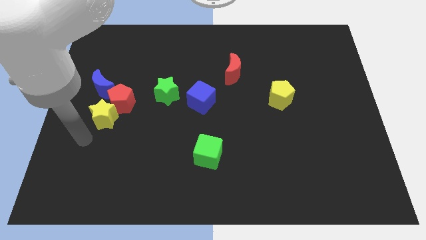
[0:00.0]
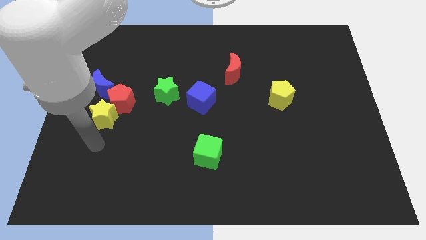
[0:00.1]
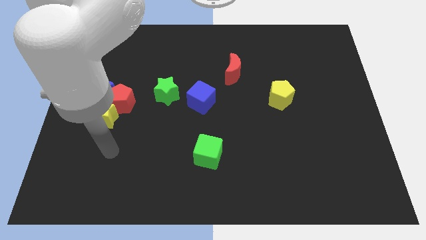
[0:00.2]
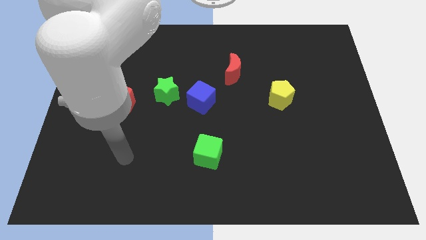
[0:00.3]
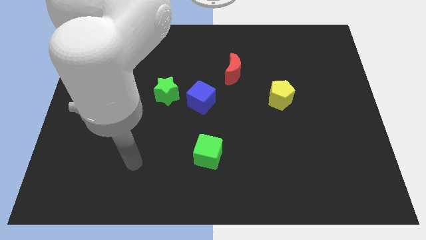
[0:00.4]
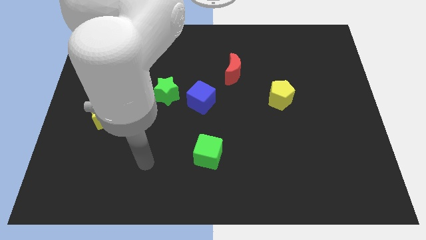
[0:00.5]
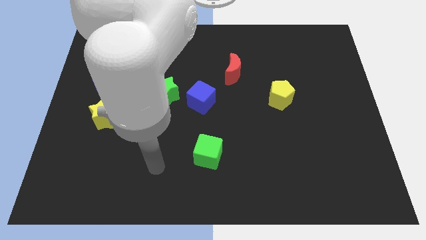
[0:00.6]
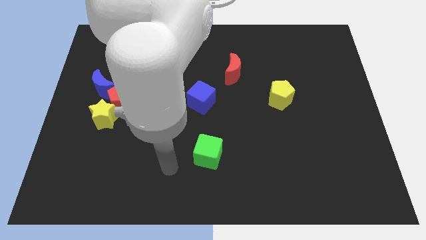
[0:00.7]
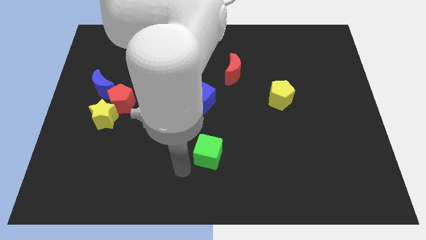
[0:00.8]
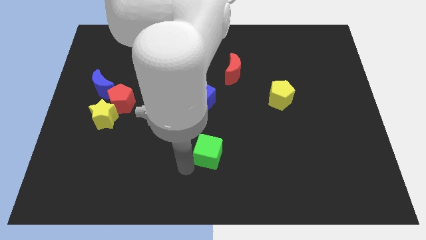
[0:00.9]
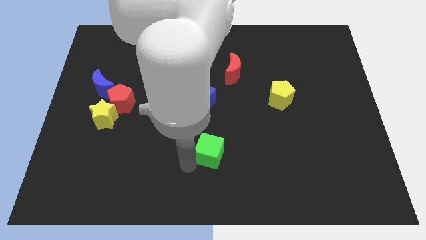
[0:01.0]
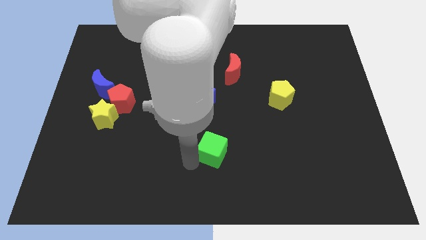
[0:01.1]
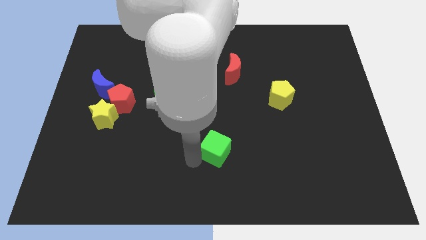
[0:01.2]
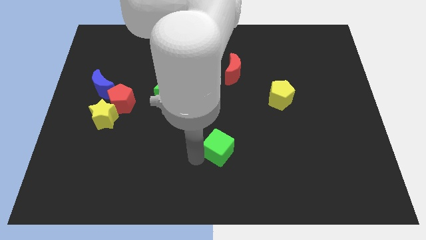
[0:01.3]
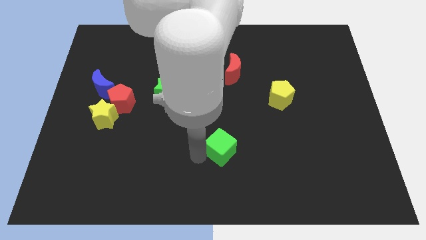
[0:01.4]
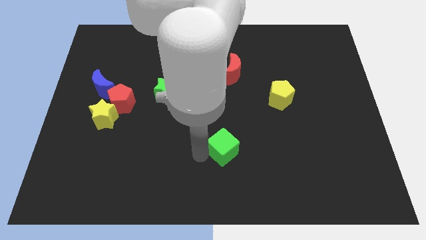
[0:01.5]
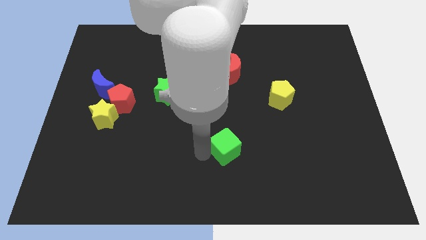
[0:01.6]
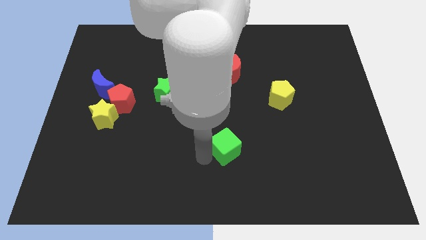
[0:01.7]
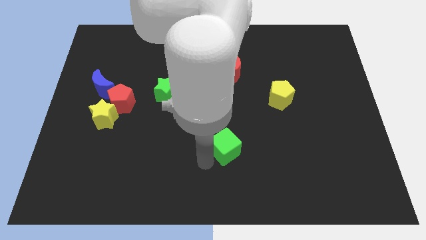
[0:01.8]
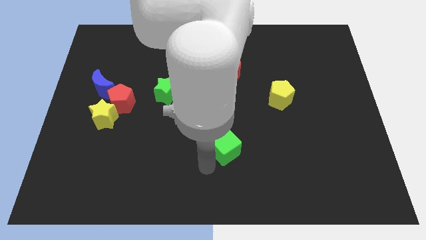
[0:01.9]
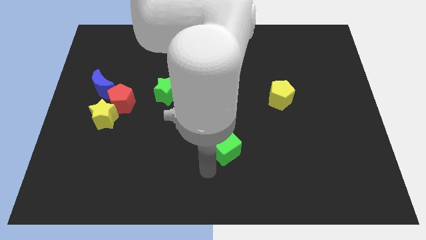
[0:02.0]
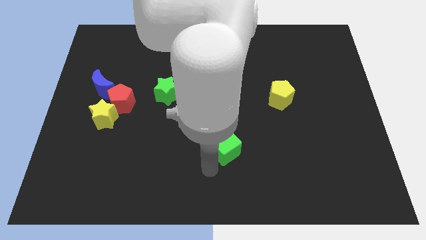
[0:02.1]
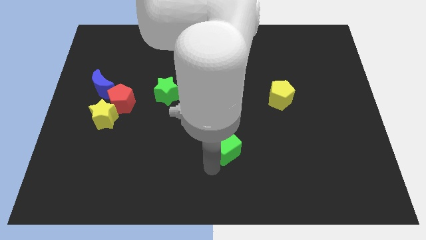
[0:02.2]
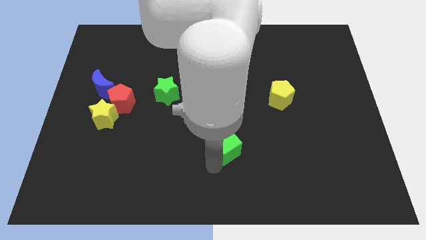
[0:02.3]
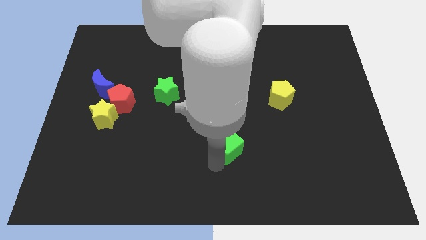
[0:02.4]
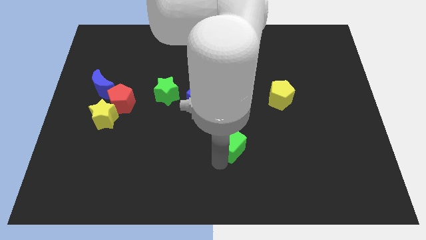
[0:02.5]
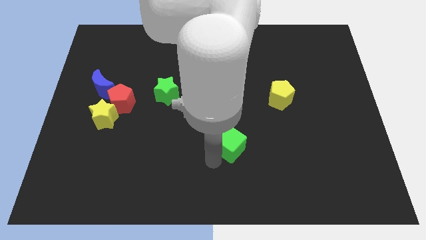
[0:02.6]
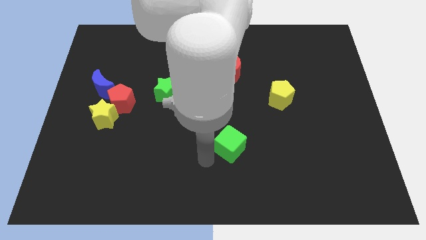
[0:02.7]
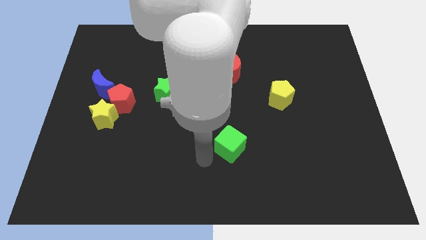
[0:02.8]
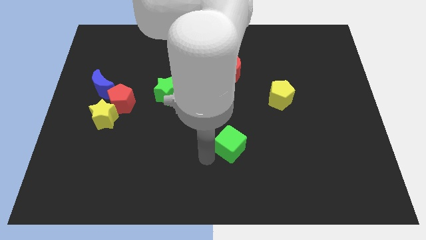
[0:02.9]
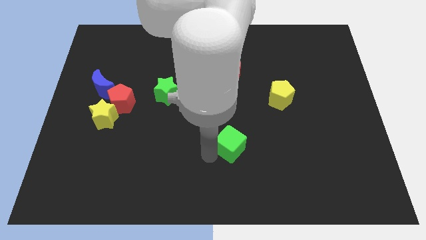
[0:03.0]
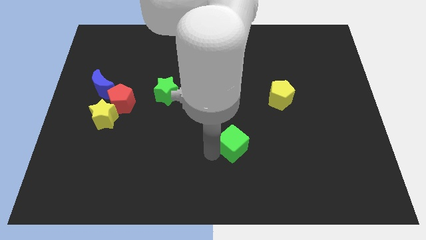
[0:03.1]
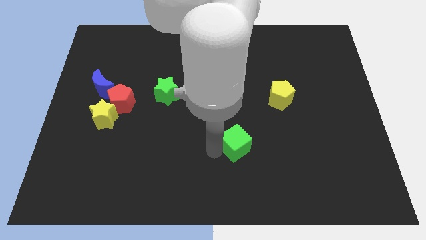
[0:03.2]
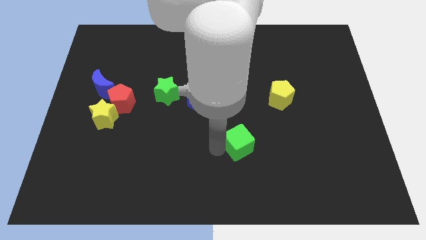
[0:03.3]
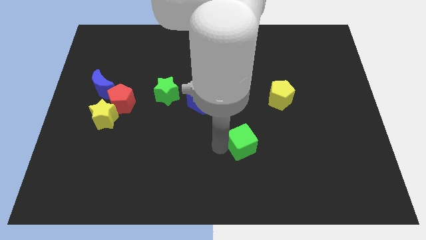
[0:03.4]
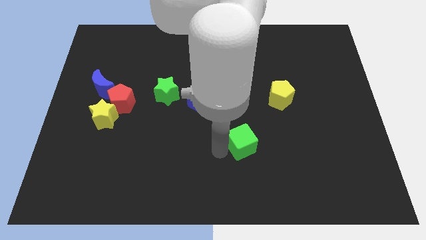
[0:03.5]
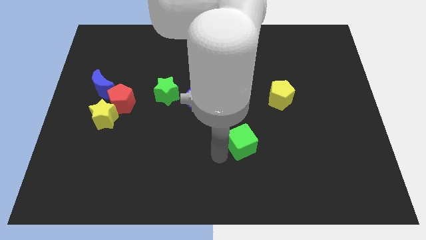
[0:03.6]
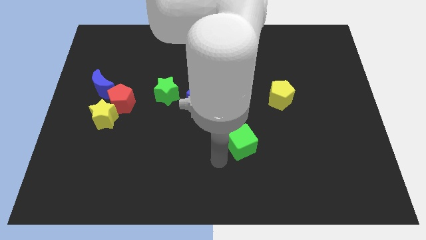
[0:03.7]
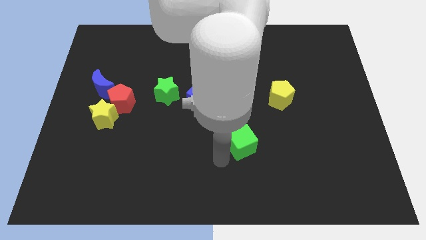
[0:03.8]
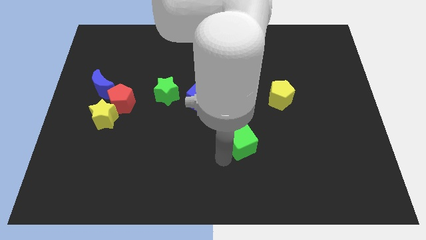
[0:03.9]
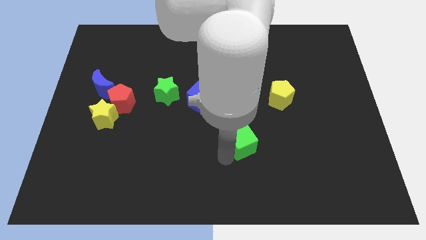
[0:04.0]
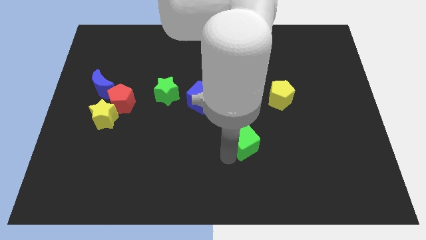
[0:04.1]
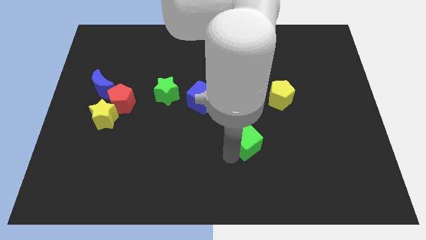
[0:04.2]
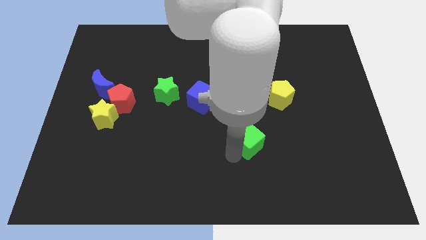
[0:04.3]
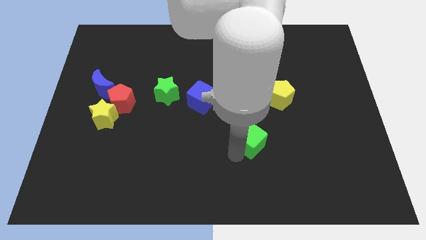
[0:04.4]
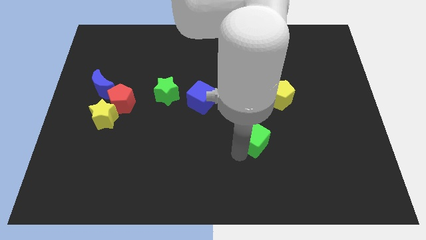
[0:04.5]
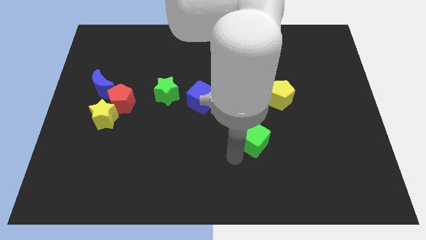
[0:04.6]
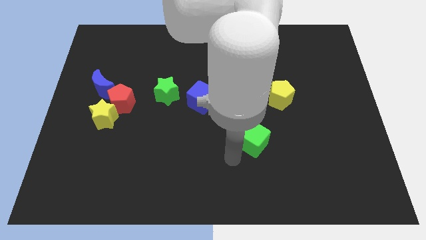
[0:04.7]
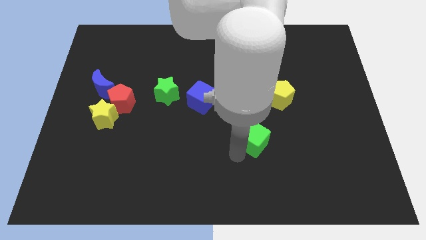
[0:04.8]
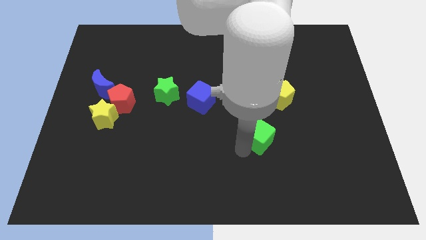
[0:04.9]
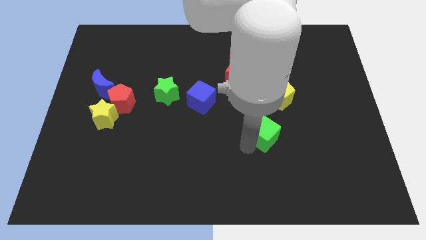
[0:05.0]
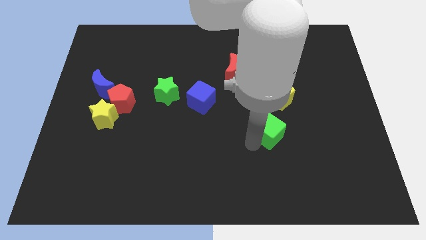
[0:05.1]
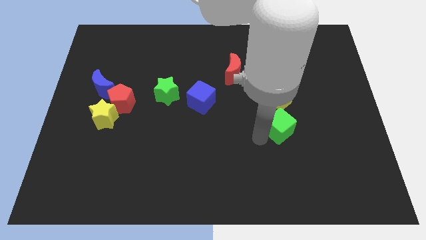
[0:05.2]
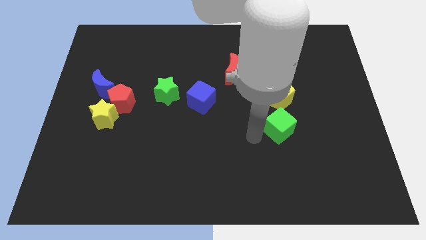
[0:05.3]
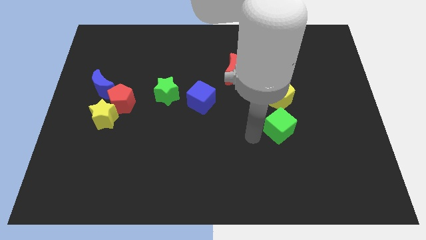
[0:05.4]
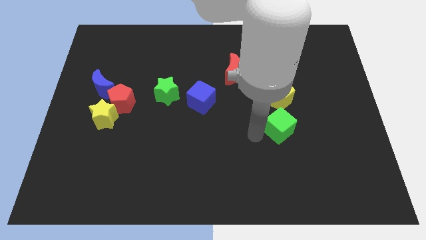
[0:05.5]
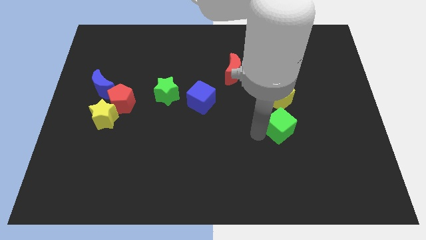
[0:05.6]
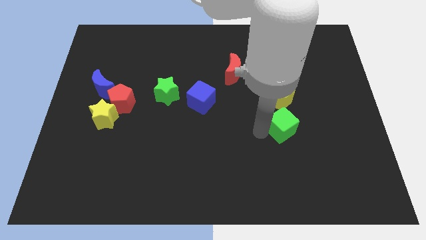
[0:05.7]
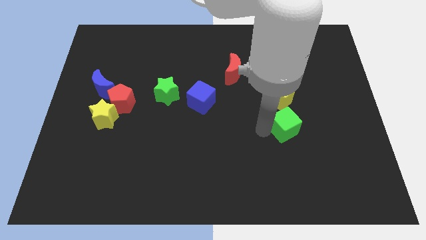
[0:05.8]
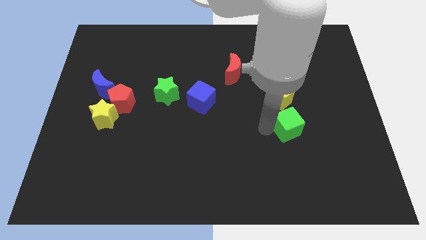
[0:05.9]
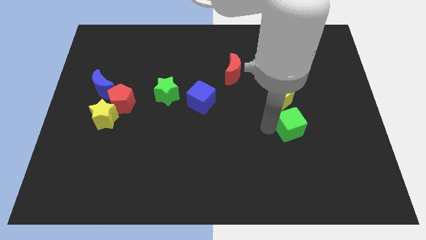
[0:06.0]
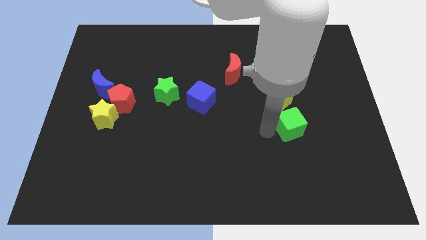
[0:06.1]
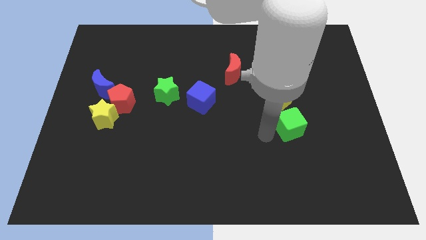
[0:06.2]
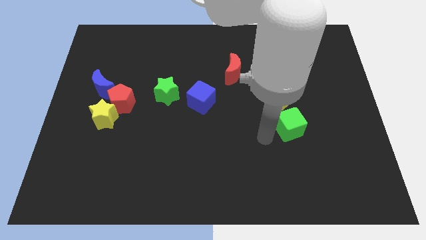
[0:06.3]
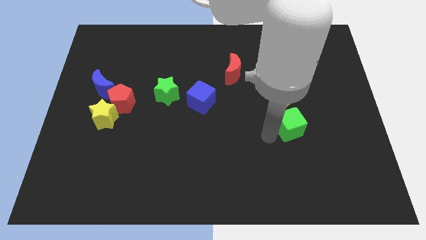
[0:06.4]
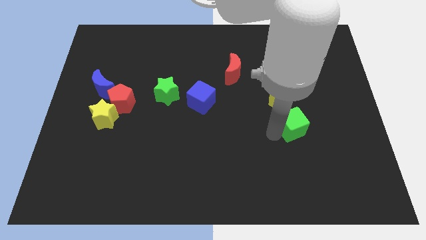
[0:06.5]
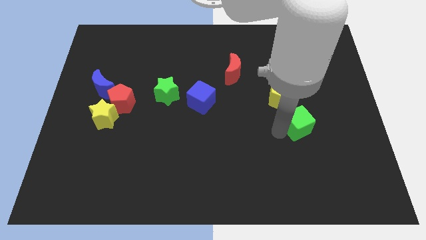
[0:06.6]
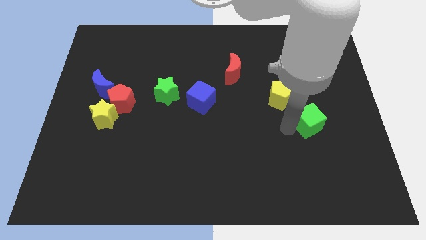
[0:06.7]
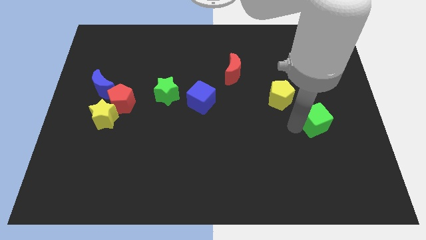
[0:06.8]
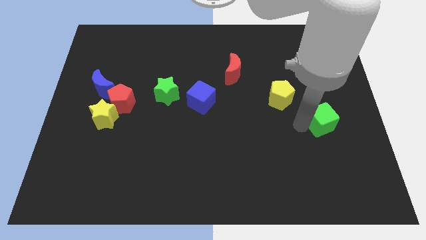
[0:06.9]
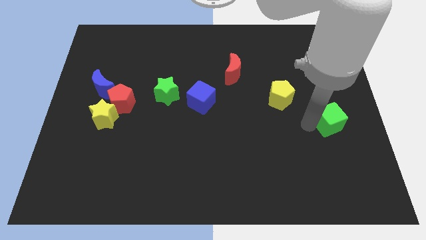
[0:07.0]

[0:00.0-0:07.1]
push the green cube to the right side
